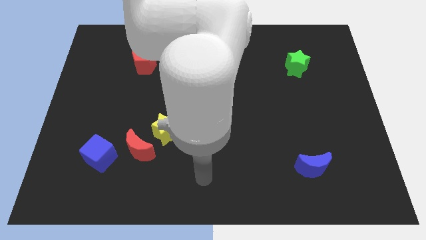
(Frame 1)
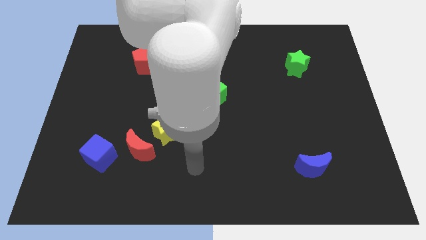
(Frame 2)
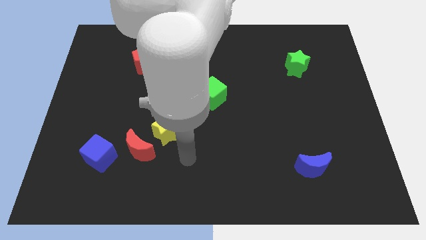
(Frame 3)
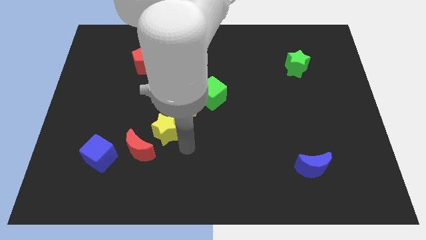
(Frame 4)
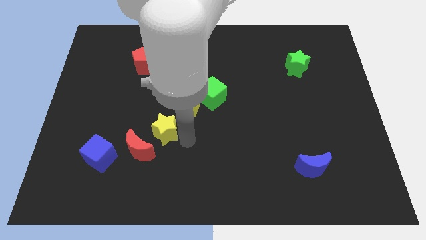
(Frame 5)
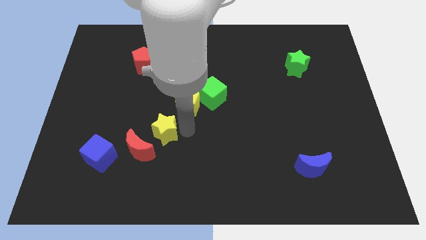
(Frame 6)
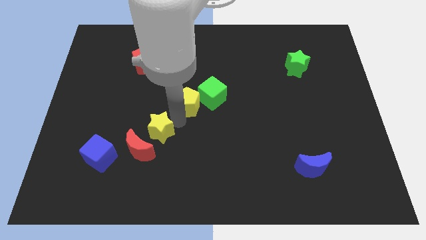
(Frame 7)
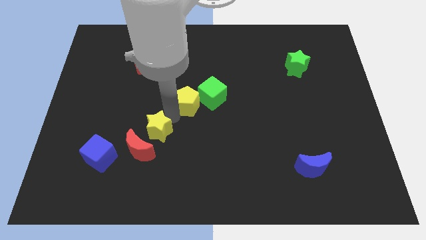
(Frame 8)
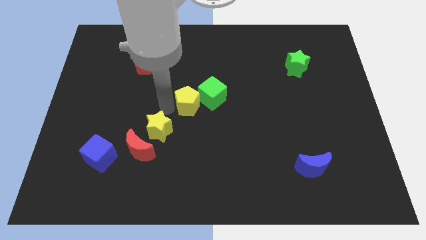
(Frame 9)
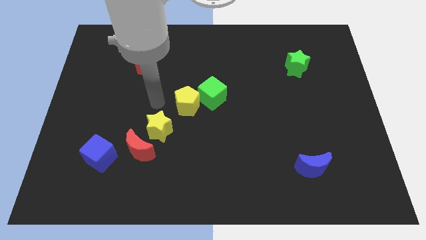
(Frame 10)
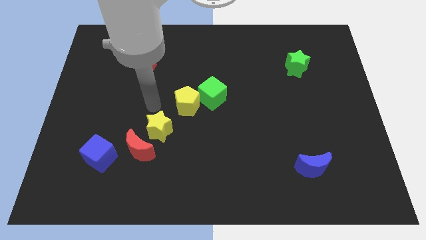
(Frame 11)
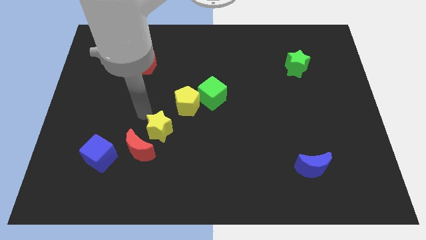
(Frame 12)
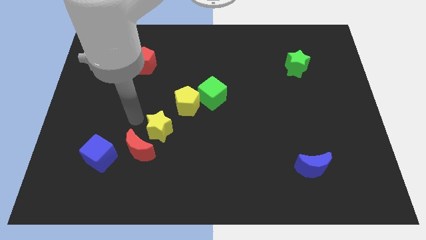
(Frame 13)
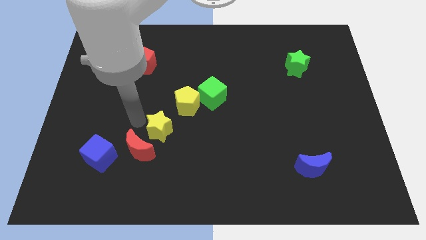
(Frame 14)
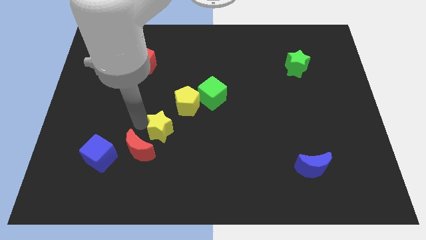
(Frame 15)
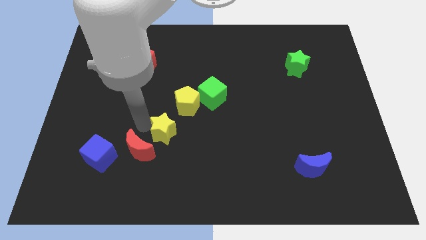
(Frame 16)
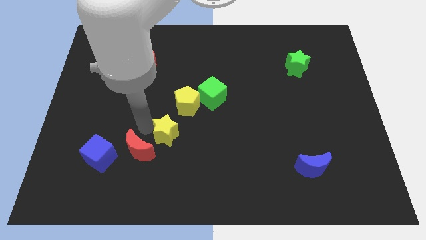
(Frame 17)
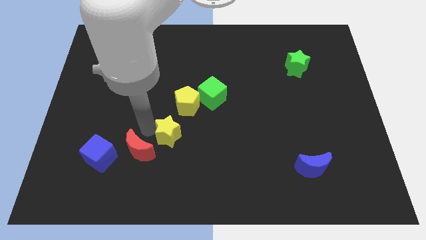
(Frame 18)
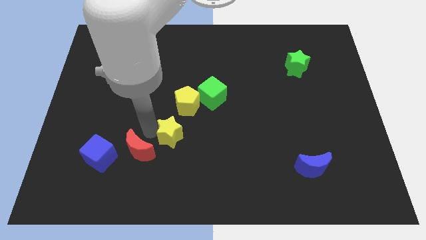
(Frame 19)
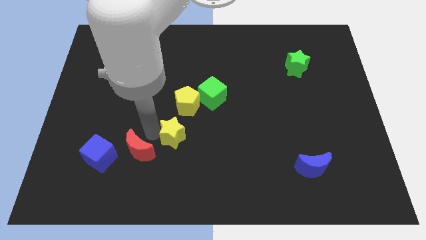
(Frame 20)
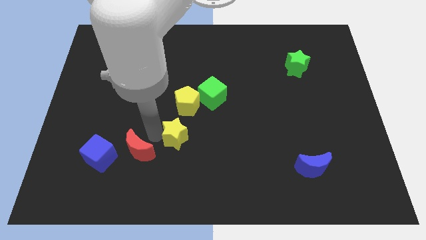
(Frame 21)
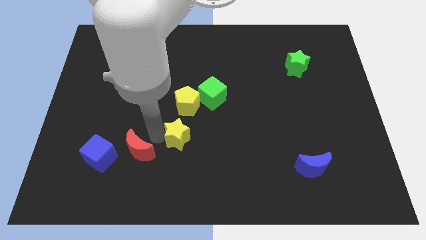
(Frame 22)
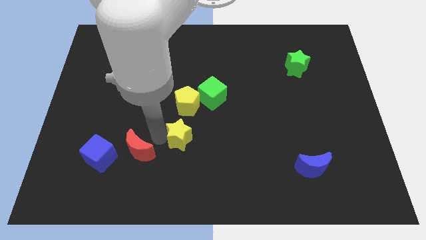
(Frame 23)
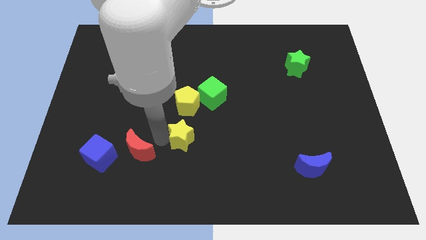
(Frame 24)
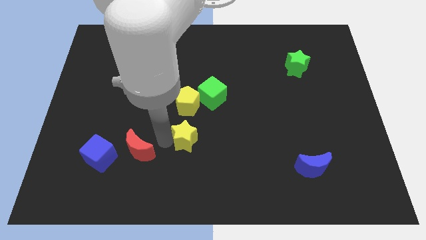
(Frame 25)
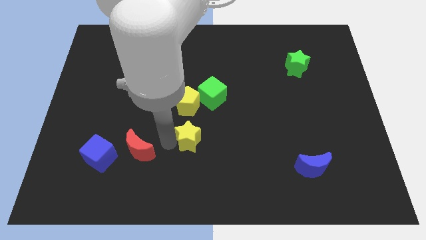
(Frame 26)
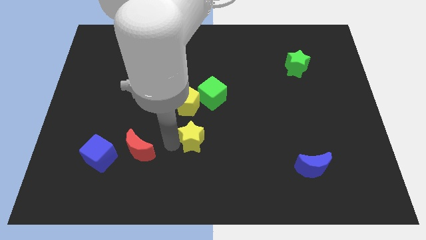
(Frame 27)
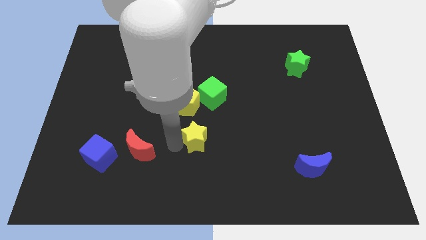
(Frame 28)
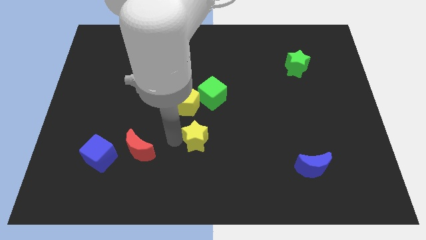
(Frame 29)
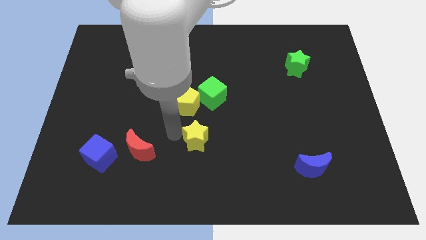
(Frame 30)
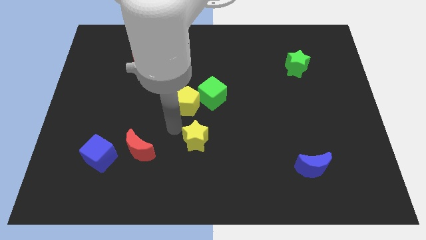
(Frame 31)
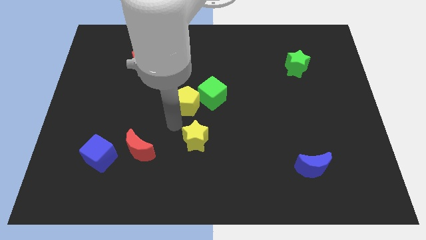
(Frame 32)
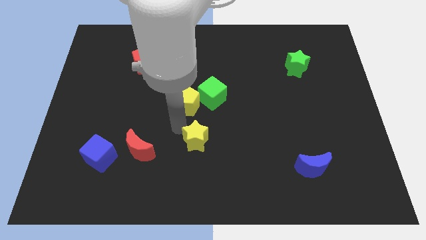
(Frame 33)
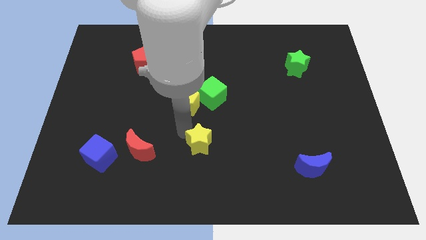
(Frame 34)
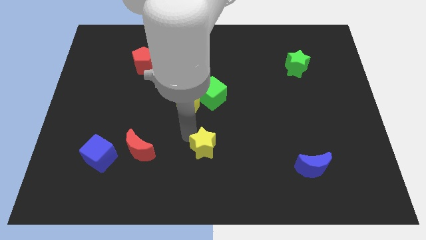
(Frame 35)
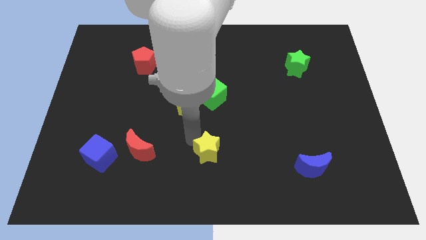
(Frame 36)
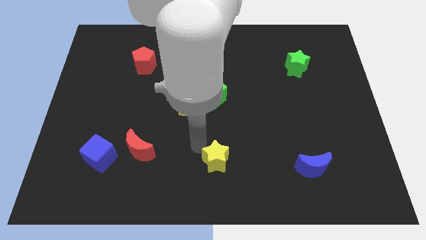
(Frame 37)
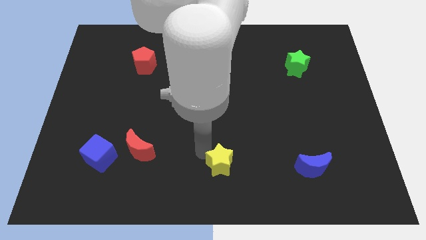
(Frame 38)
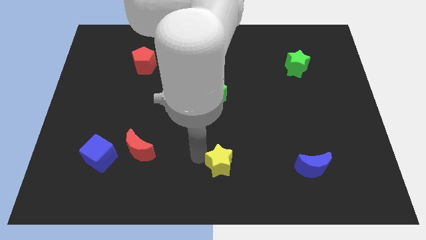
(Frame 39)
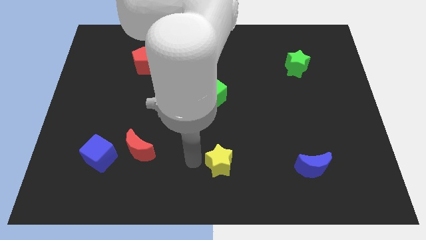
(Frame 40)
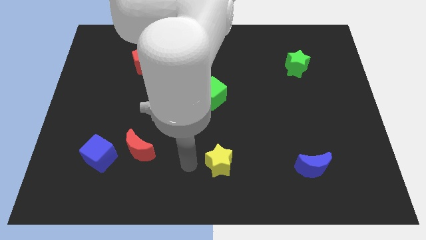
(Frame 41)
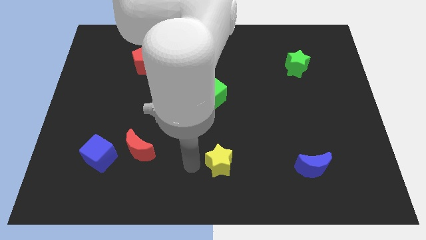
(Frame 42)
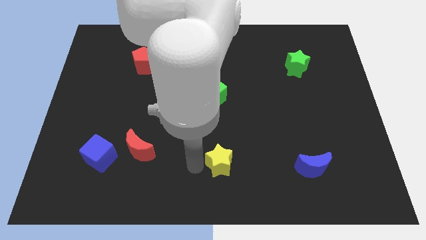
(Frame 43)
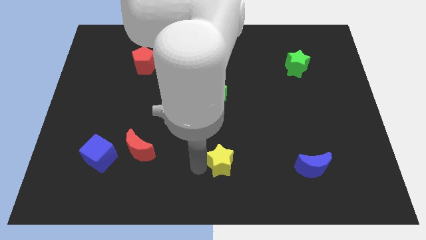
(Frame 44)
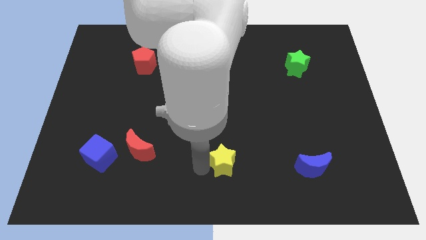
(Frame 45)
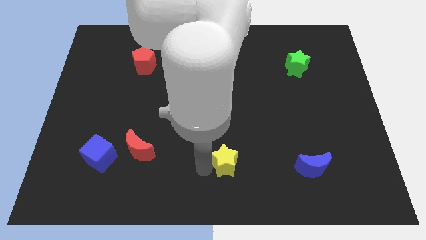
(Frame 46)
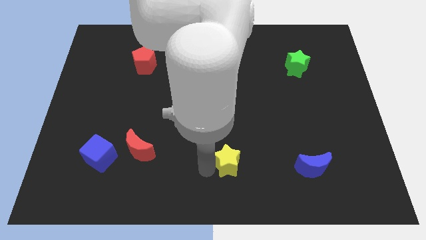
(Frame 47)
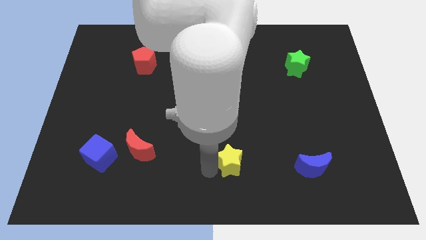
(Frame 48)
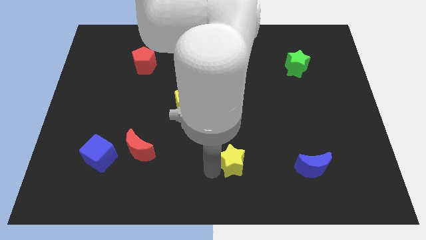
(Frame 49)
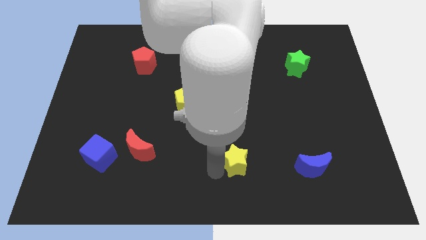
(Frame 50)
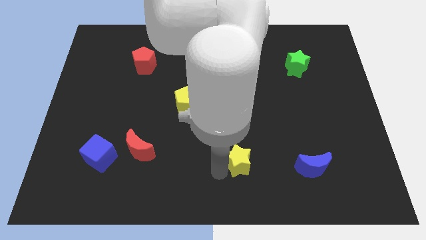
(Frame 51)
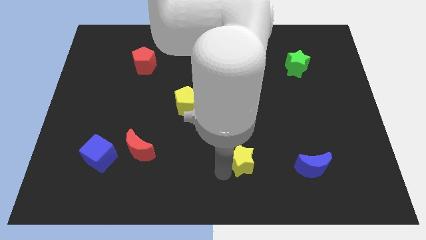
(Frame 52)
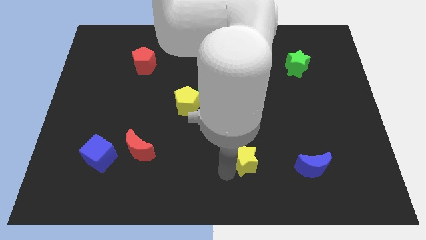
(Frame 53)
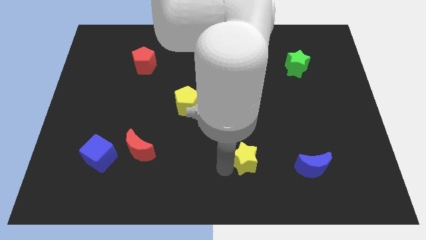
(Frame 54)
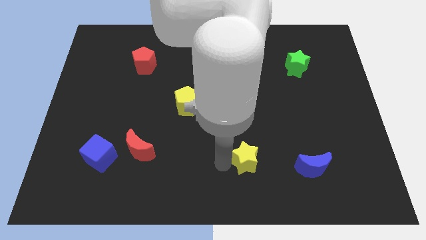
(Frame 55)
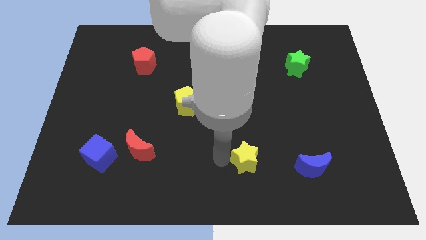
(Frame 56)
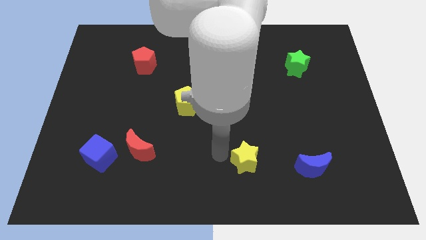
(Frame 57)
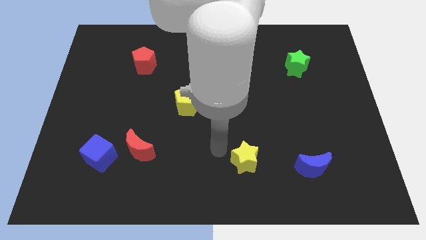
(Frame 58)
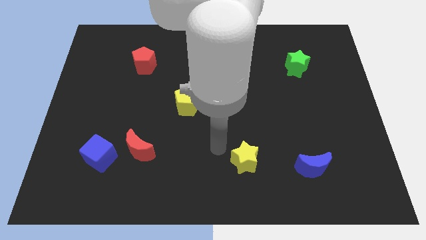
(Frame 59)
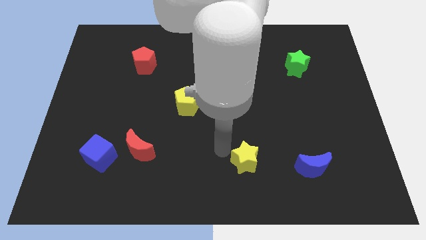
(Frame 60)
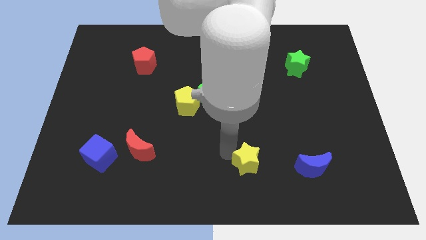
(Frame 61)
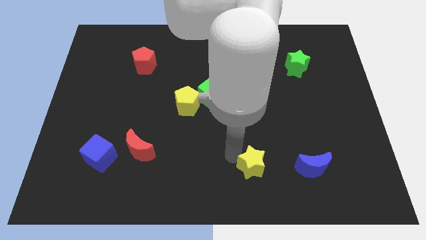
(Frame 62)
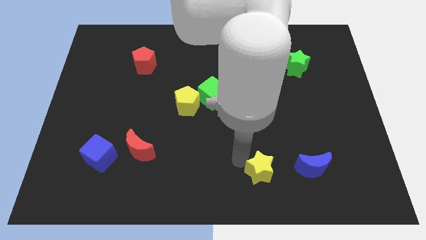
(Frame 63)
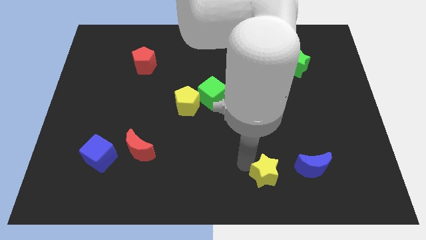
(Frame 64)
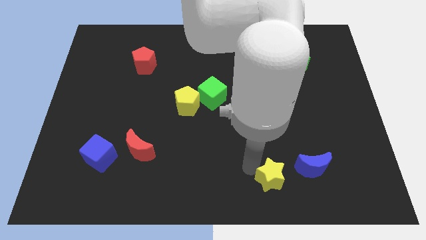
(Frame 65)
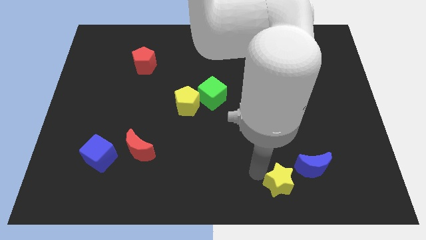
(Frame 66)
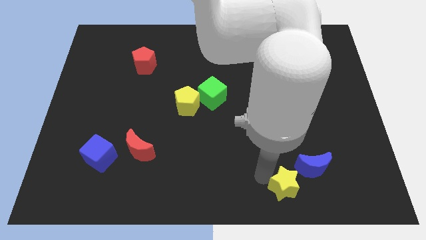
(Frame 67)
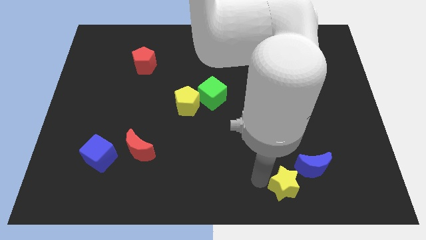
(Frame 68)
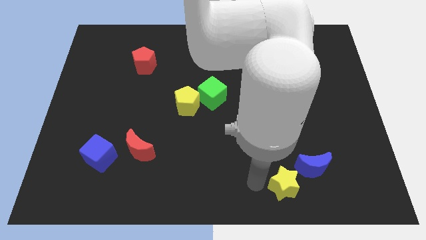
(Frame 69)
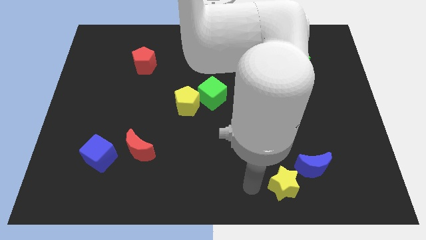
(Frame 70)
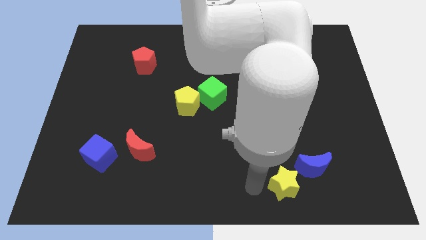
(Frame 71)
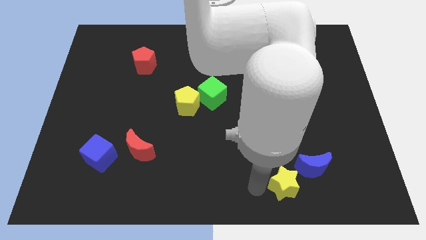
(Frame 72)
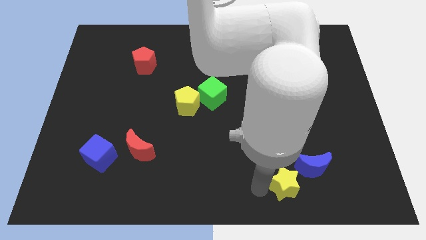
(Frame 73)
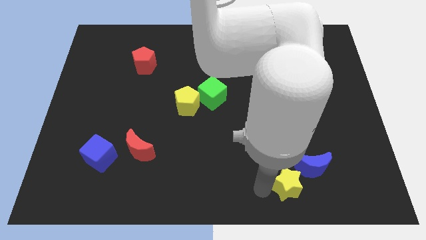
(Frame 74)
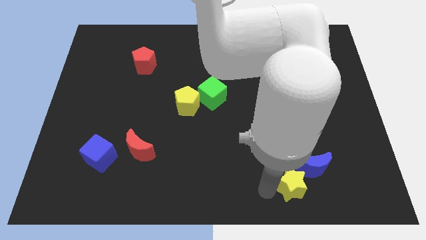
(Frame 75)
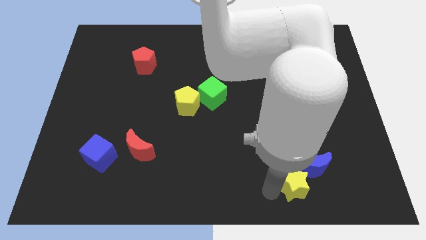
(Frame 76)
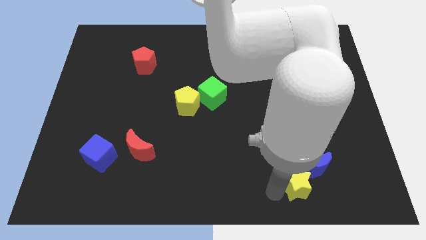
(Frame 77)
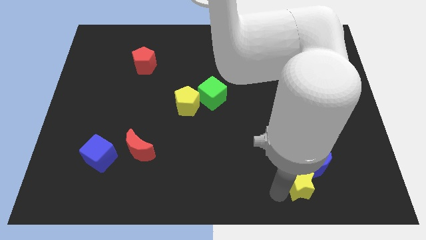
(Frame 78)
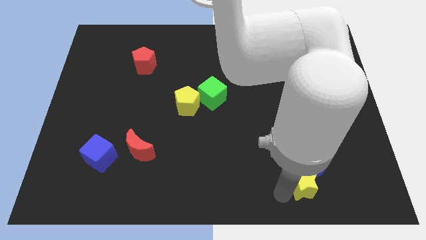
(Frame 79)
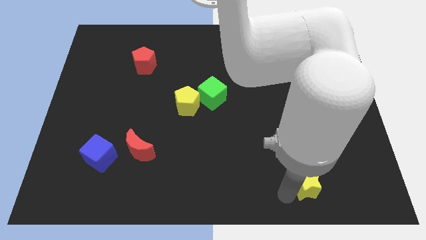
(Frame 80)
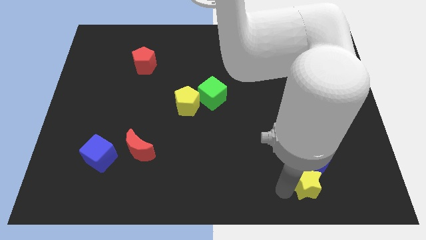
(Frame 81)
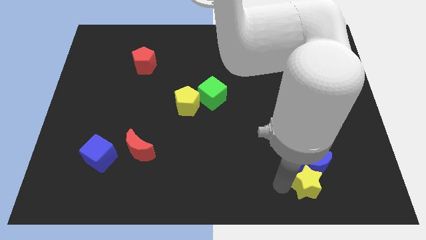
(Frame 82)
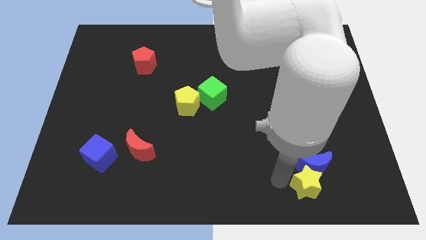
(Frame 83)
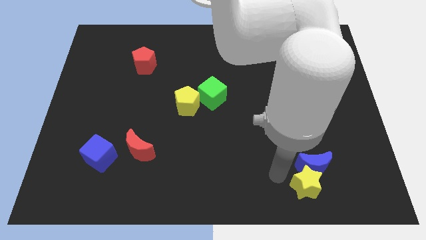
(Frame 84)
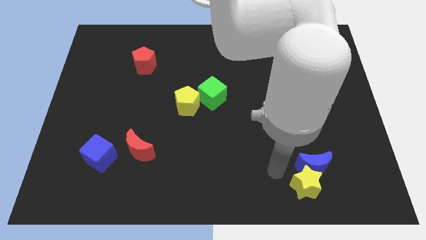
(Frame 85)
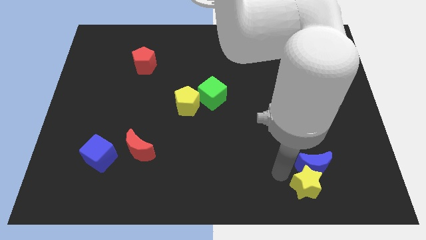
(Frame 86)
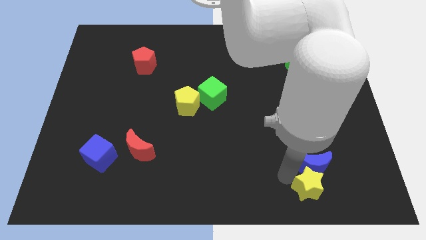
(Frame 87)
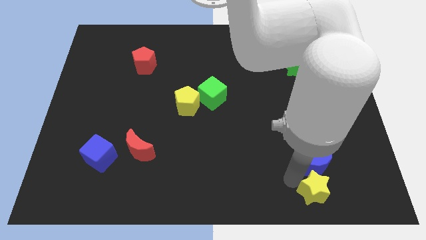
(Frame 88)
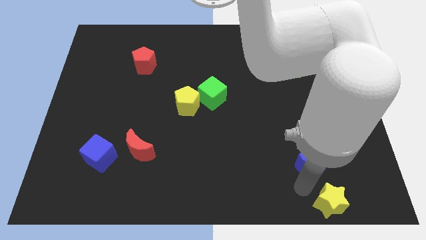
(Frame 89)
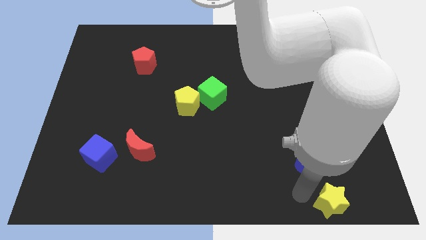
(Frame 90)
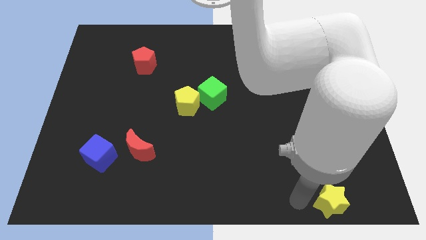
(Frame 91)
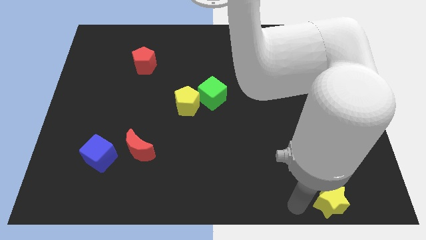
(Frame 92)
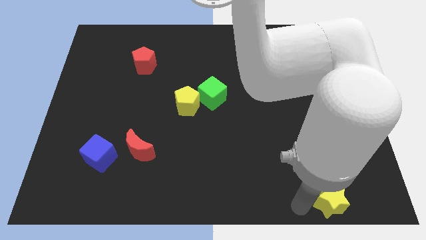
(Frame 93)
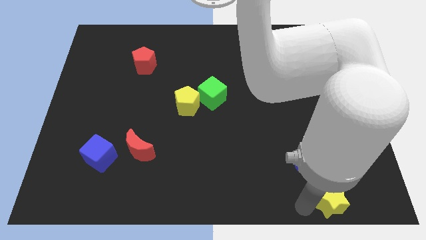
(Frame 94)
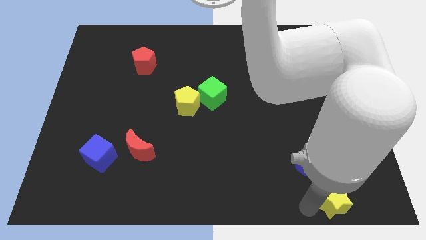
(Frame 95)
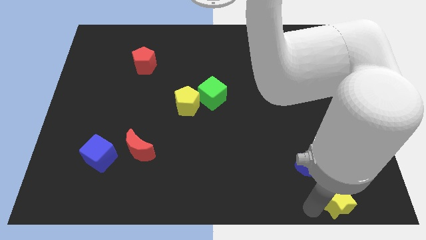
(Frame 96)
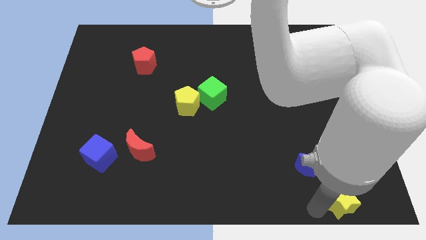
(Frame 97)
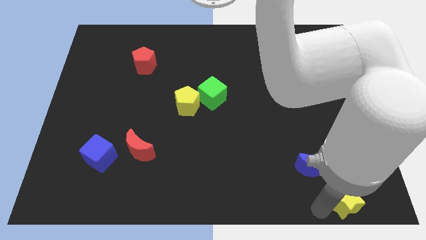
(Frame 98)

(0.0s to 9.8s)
slide the yellow star to the bottom right corner
